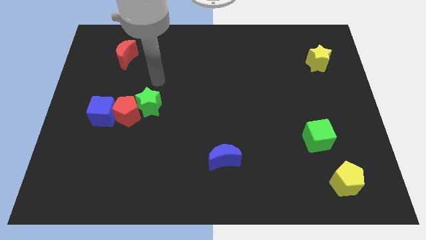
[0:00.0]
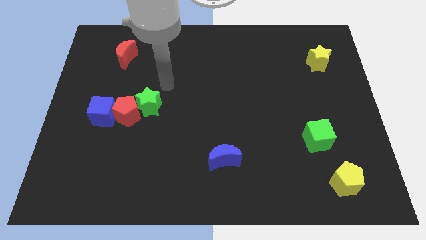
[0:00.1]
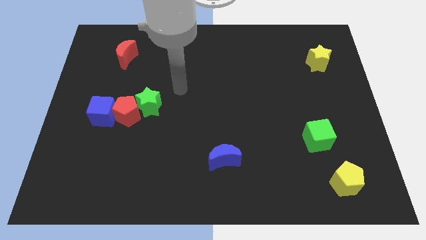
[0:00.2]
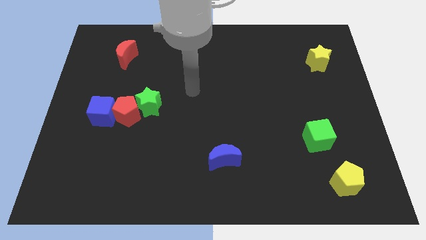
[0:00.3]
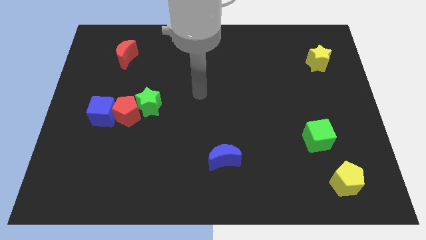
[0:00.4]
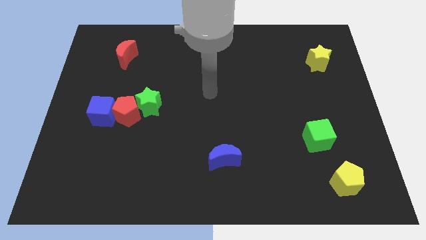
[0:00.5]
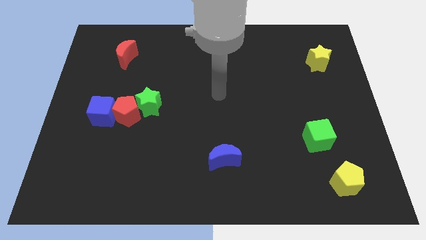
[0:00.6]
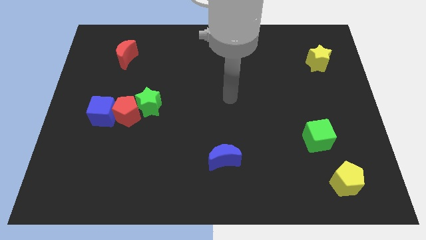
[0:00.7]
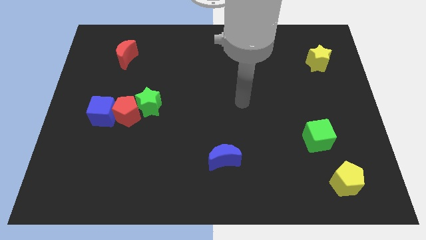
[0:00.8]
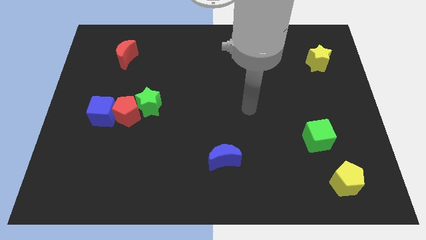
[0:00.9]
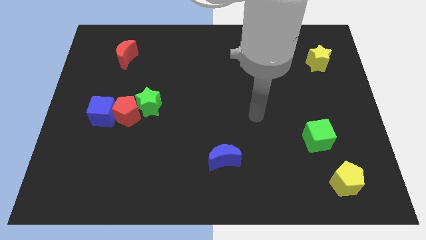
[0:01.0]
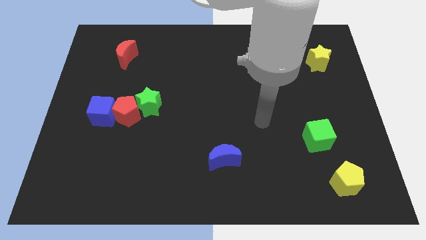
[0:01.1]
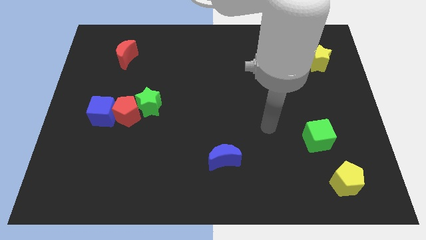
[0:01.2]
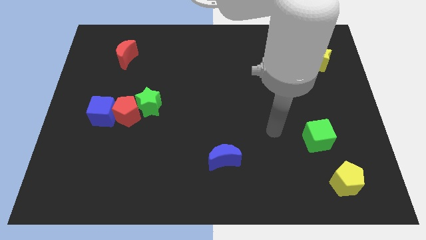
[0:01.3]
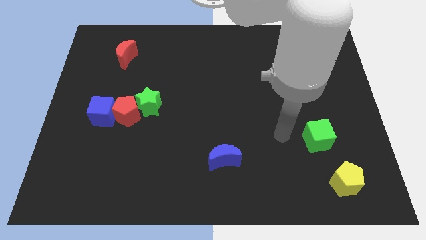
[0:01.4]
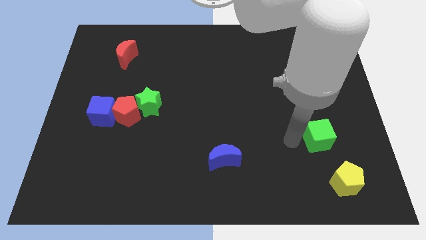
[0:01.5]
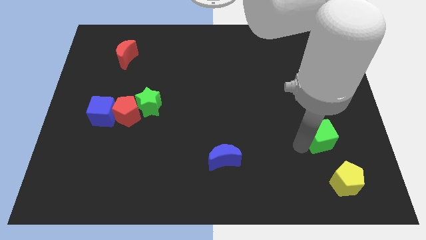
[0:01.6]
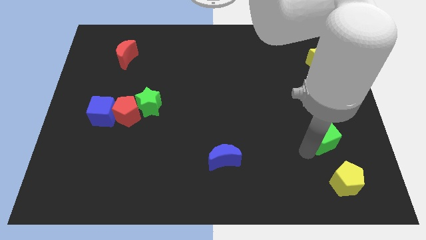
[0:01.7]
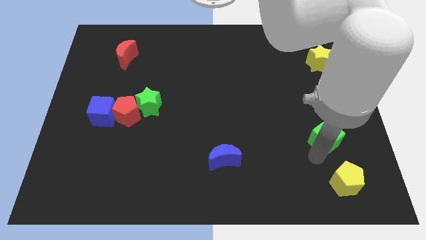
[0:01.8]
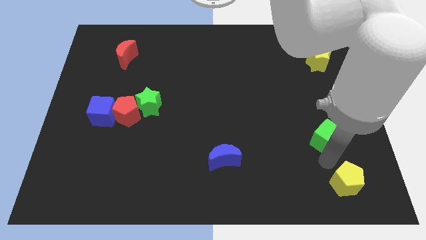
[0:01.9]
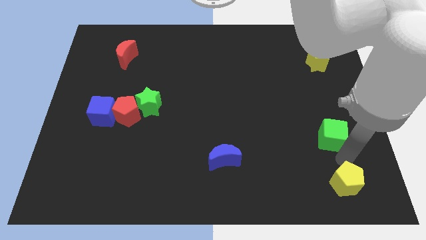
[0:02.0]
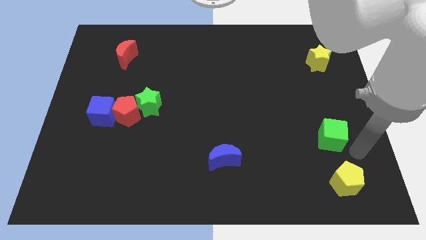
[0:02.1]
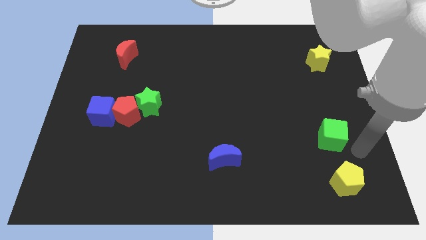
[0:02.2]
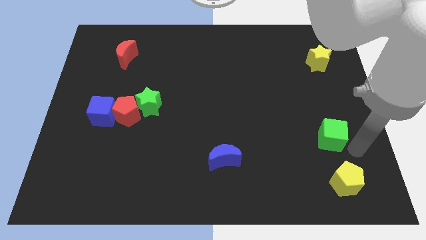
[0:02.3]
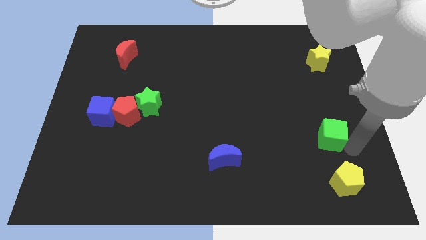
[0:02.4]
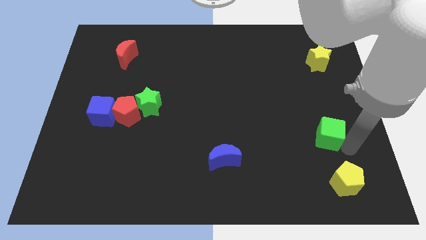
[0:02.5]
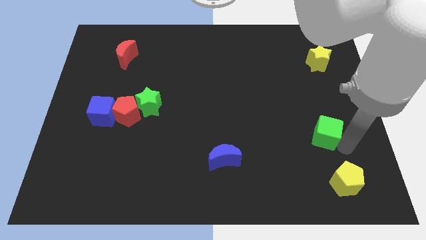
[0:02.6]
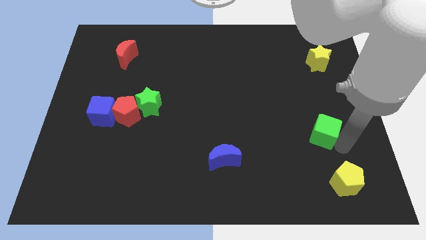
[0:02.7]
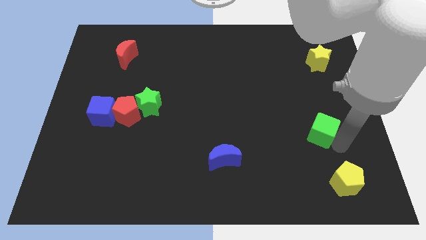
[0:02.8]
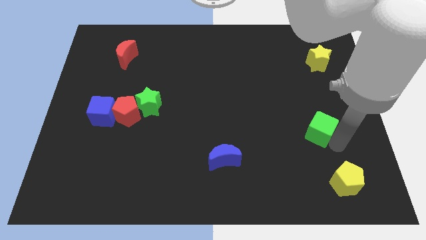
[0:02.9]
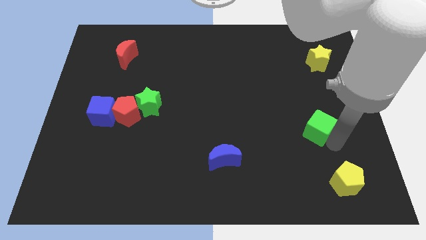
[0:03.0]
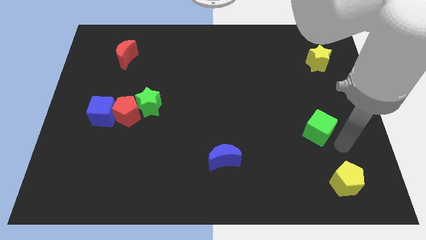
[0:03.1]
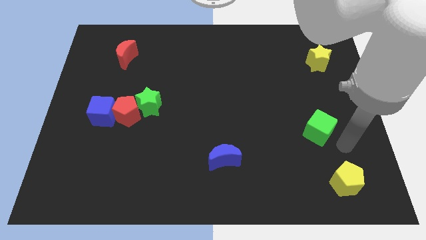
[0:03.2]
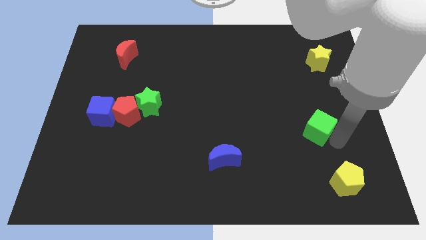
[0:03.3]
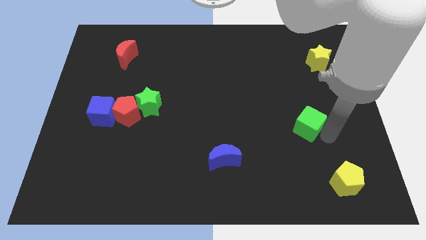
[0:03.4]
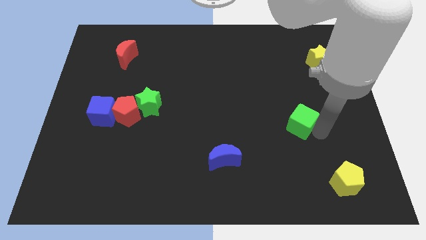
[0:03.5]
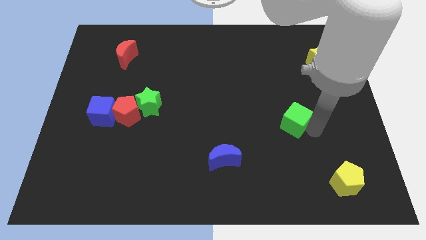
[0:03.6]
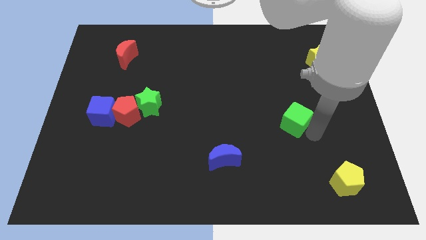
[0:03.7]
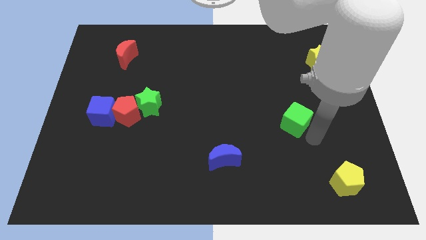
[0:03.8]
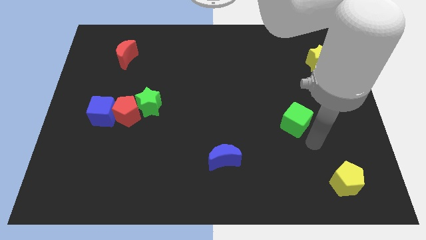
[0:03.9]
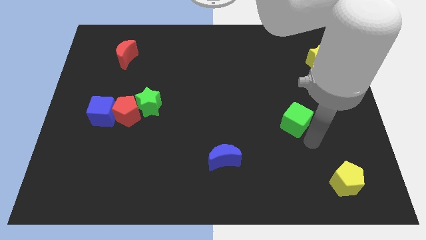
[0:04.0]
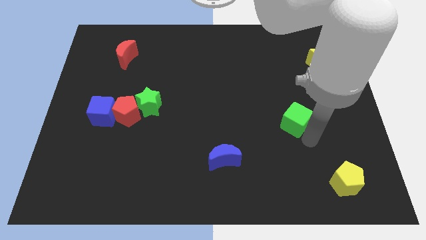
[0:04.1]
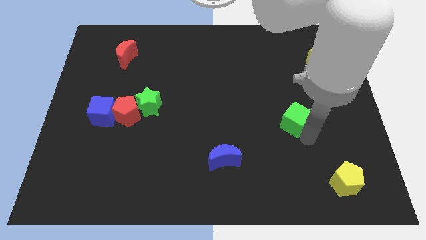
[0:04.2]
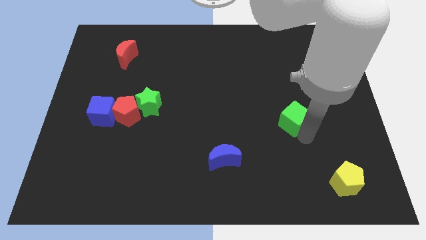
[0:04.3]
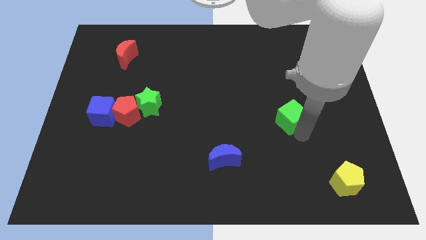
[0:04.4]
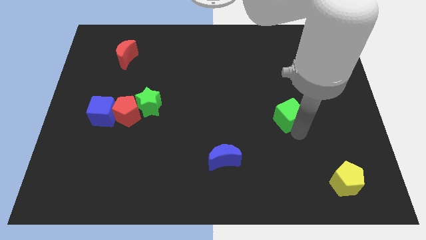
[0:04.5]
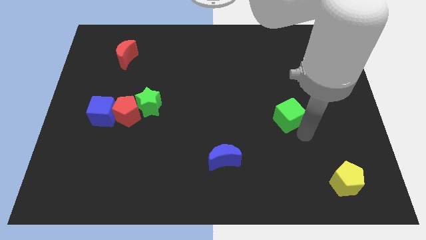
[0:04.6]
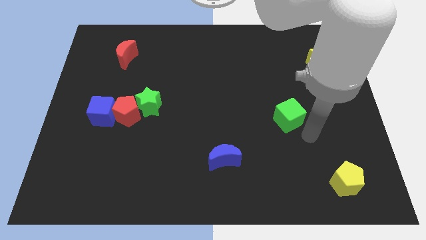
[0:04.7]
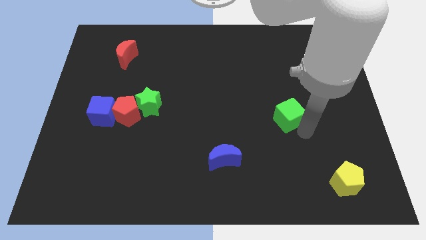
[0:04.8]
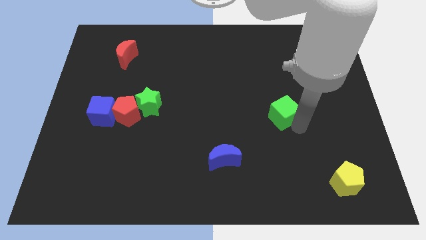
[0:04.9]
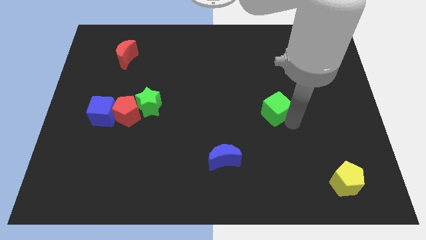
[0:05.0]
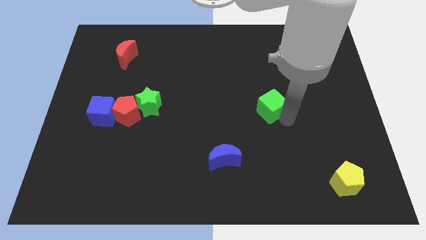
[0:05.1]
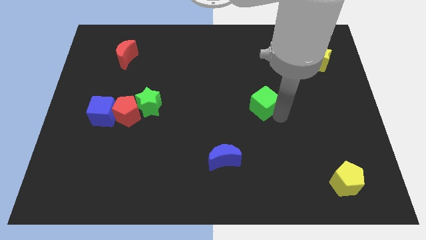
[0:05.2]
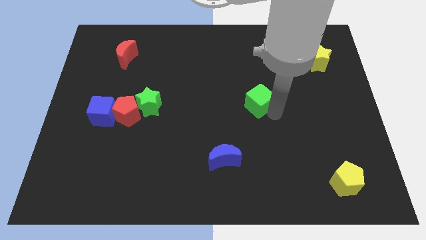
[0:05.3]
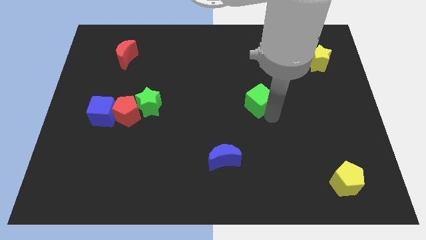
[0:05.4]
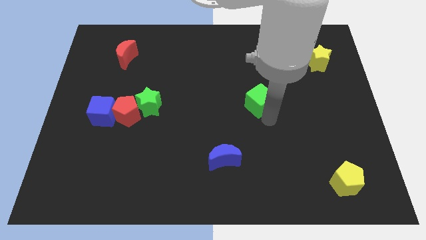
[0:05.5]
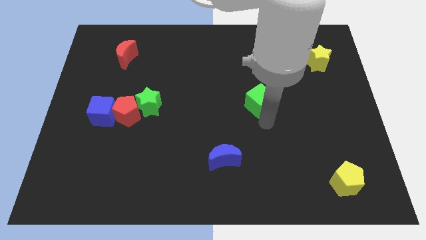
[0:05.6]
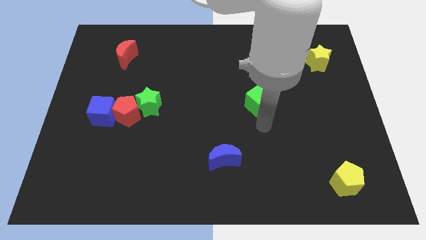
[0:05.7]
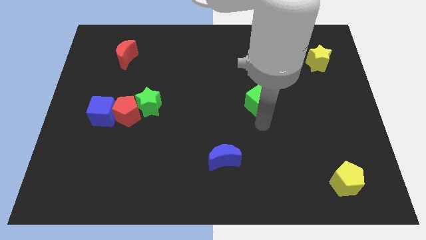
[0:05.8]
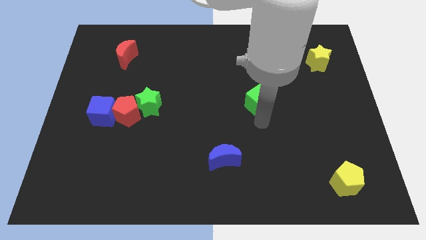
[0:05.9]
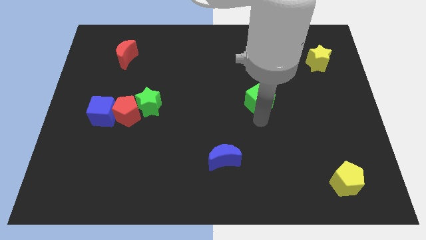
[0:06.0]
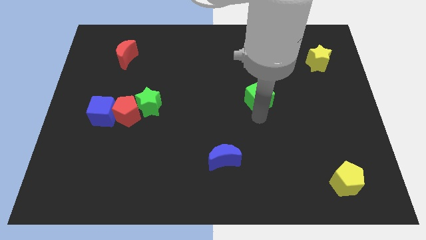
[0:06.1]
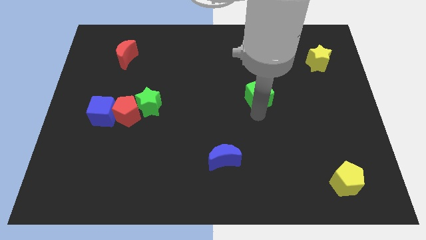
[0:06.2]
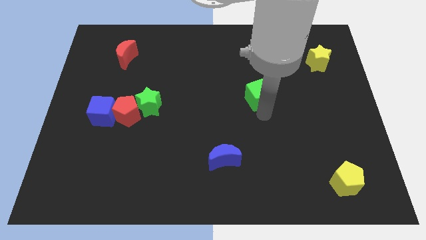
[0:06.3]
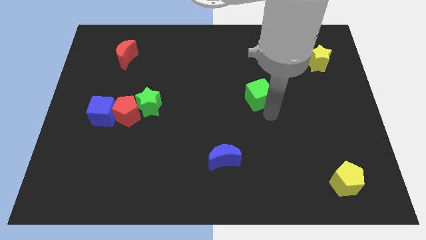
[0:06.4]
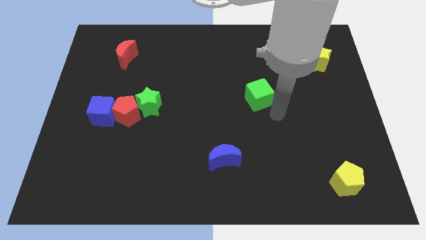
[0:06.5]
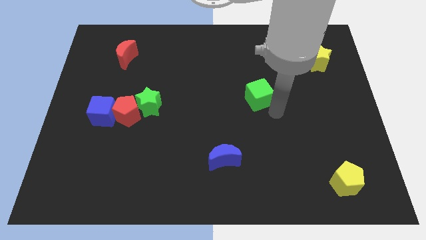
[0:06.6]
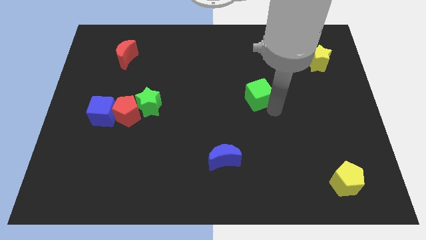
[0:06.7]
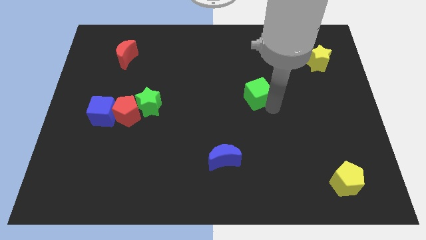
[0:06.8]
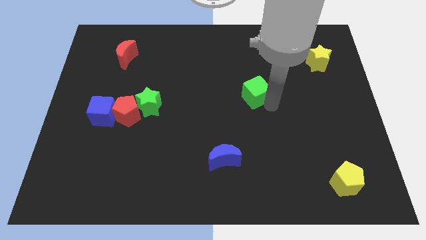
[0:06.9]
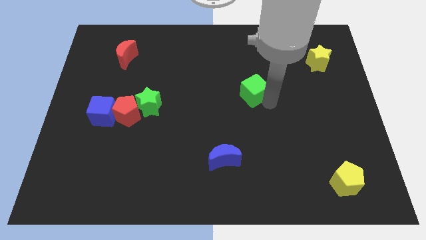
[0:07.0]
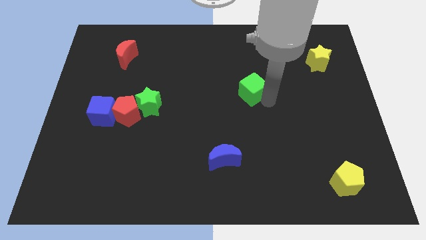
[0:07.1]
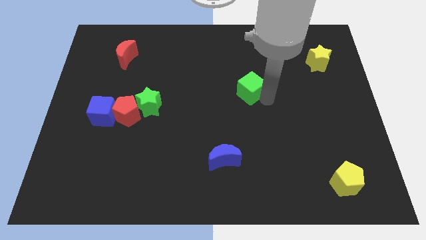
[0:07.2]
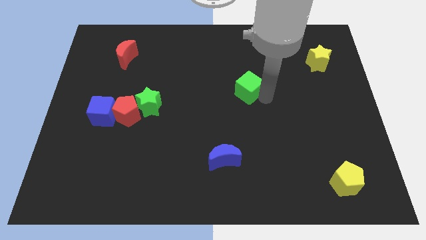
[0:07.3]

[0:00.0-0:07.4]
push the green cube up and to the left

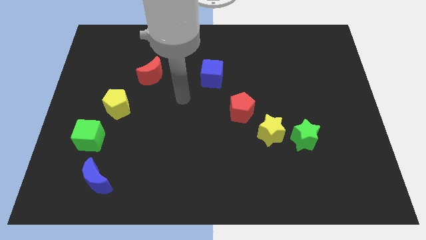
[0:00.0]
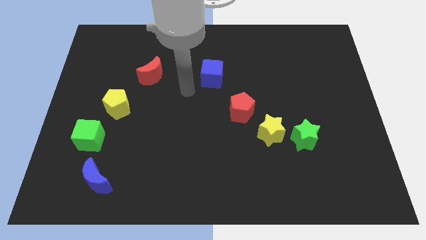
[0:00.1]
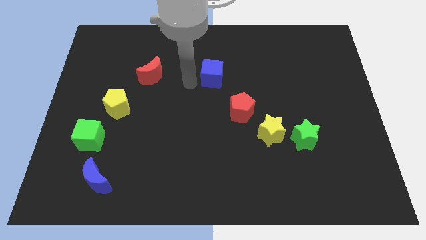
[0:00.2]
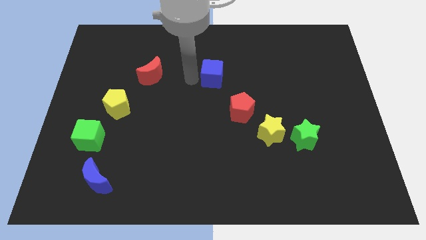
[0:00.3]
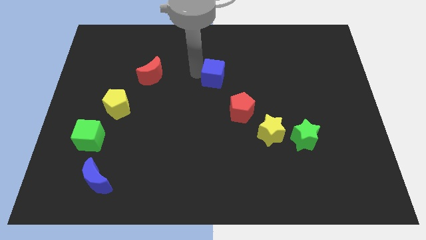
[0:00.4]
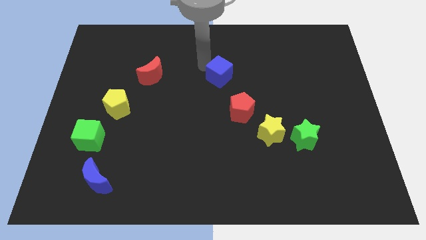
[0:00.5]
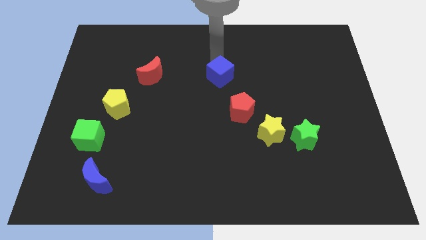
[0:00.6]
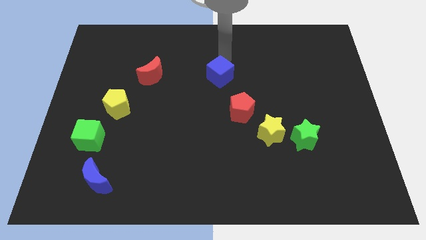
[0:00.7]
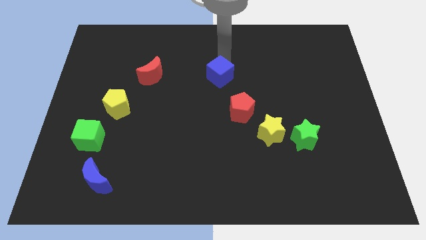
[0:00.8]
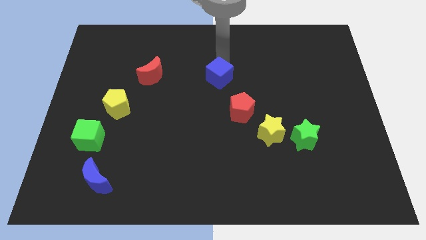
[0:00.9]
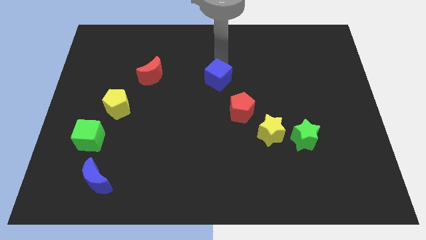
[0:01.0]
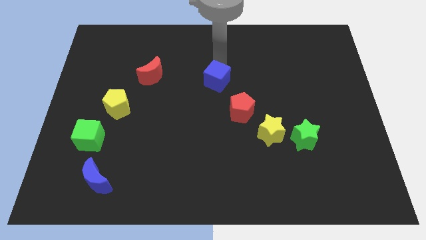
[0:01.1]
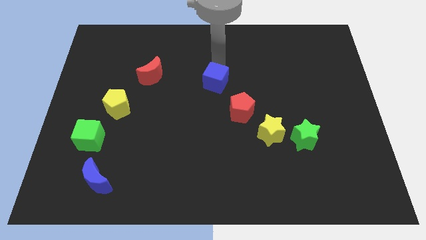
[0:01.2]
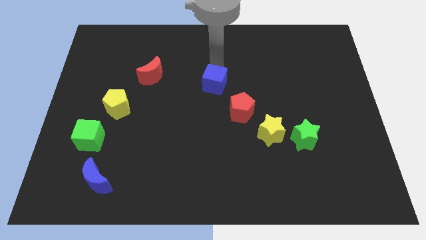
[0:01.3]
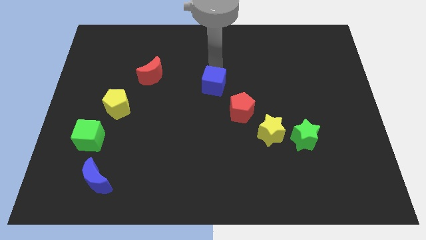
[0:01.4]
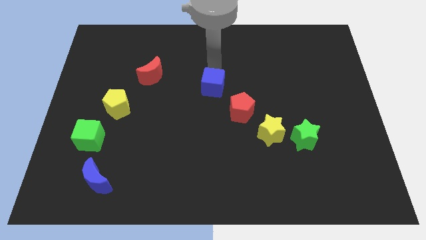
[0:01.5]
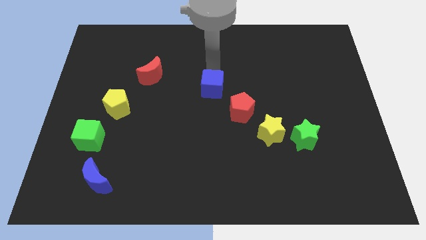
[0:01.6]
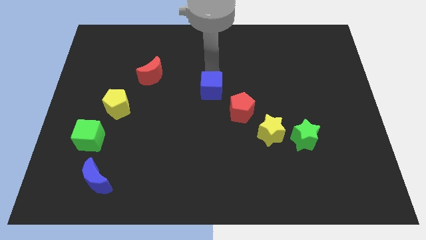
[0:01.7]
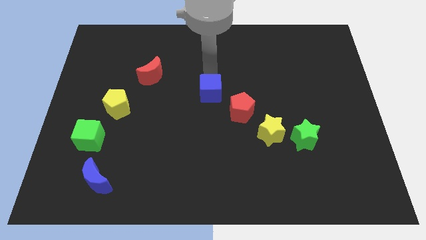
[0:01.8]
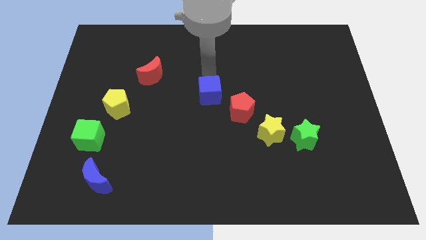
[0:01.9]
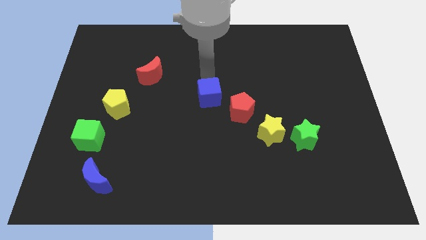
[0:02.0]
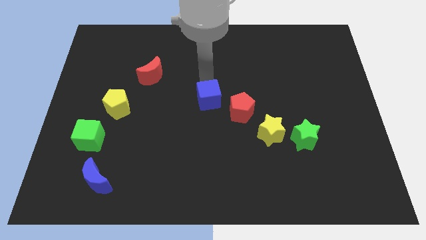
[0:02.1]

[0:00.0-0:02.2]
slide the blue cube down a little
